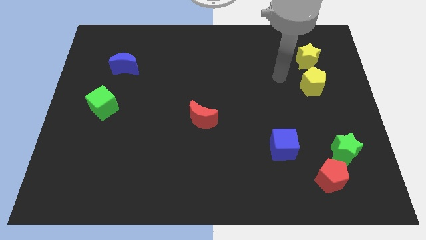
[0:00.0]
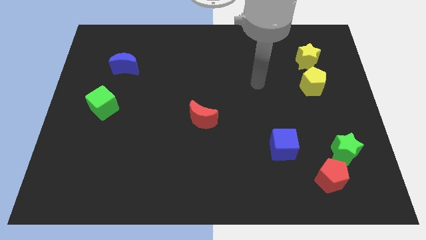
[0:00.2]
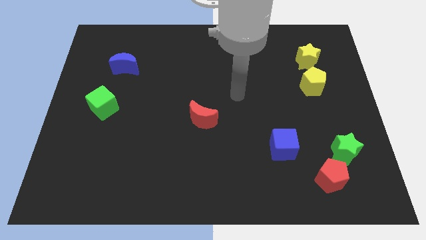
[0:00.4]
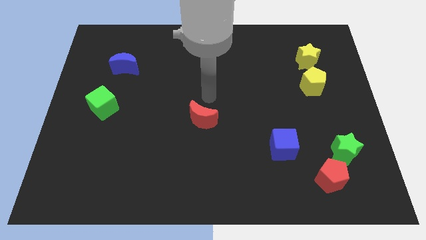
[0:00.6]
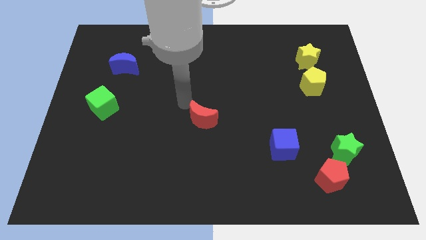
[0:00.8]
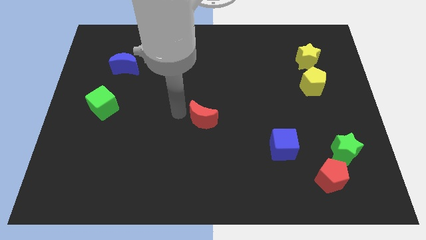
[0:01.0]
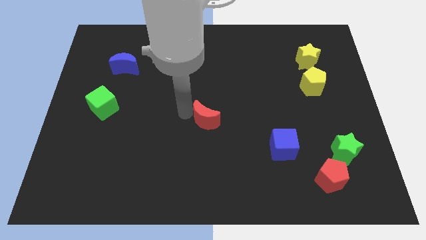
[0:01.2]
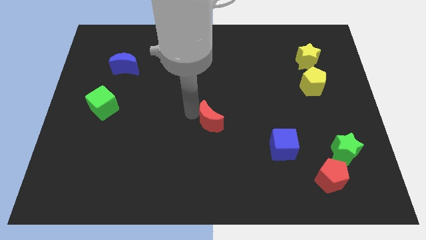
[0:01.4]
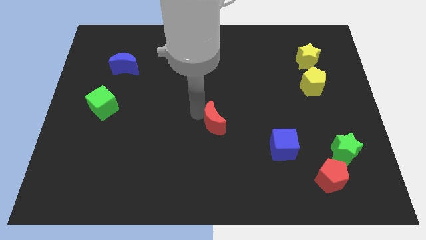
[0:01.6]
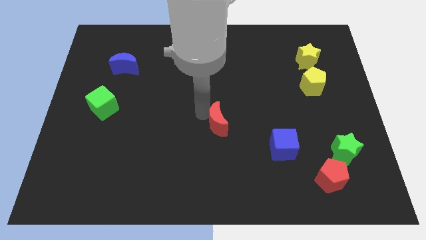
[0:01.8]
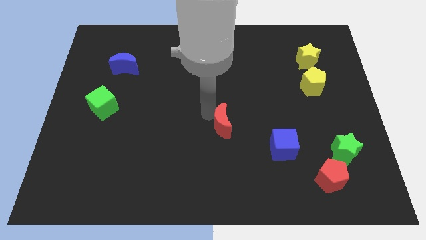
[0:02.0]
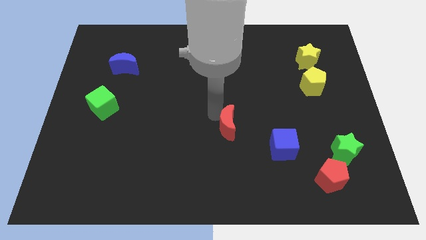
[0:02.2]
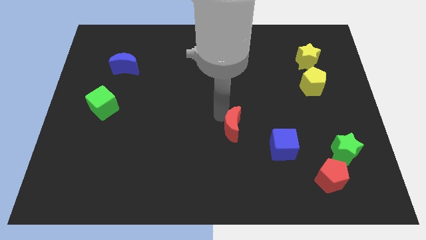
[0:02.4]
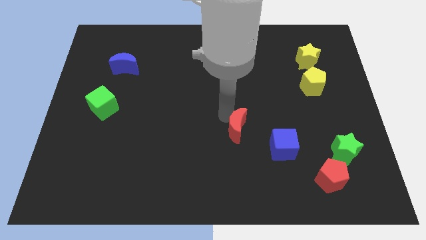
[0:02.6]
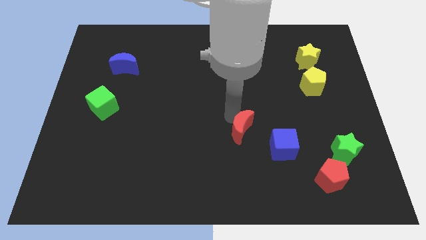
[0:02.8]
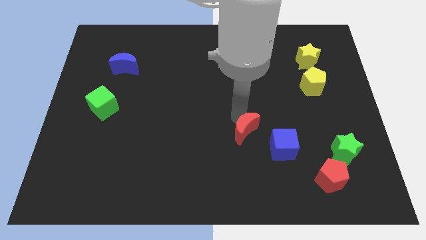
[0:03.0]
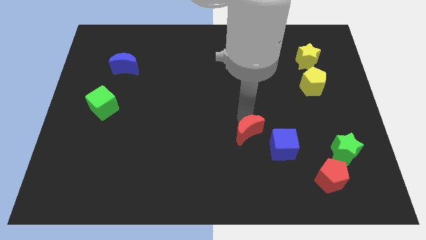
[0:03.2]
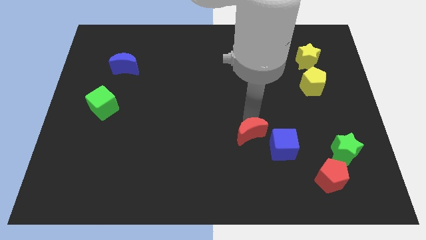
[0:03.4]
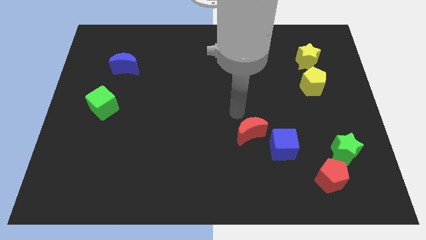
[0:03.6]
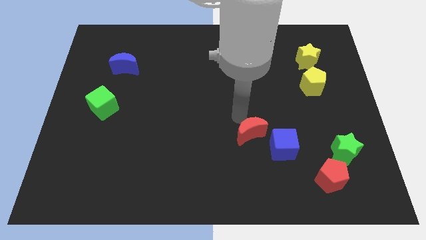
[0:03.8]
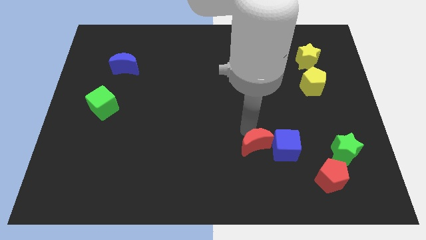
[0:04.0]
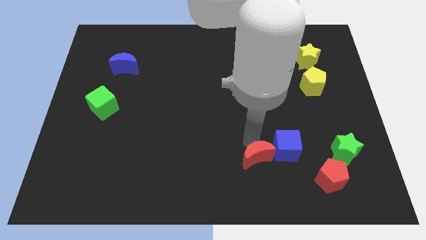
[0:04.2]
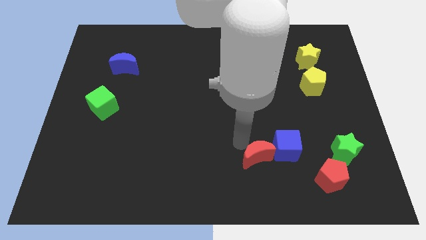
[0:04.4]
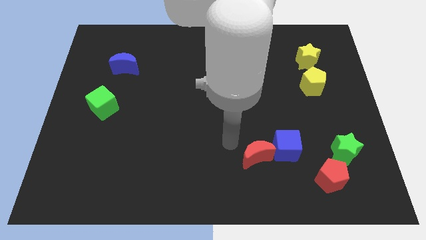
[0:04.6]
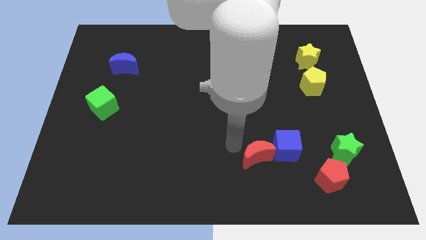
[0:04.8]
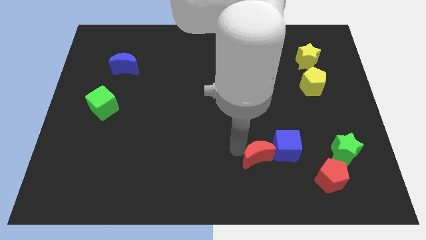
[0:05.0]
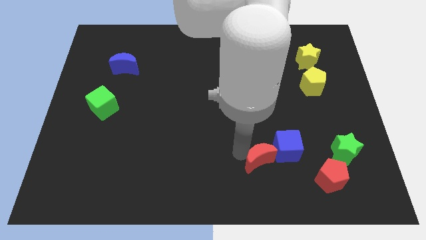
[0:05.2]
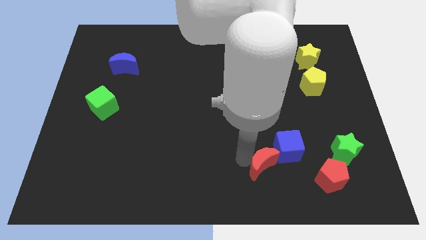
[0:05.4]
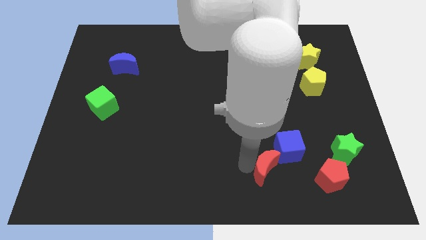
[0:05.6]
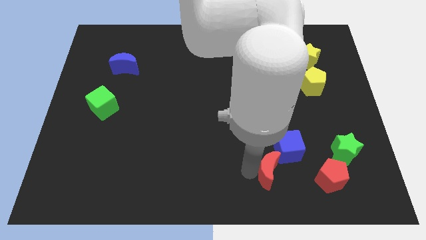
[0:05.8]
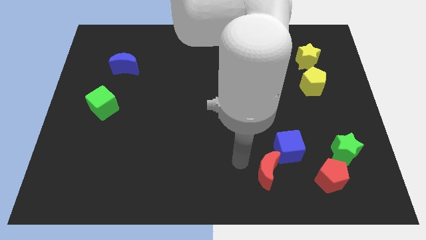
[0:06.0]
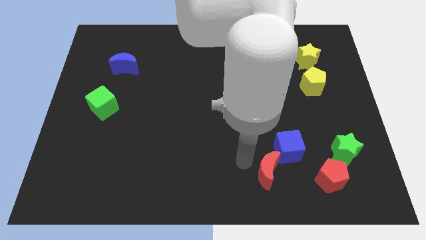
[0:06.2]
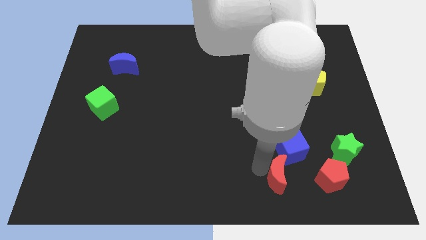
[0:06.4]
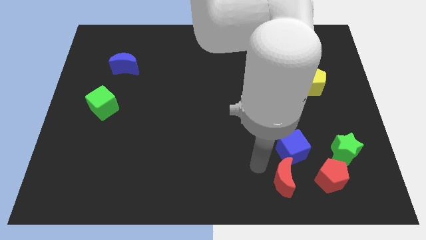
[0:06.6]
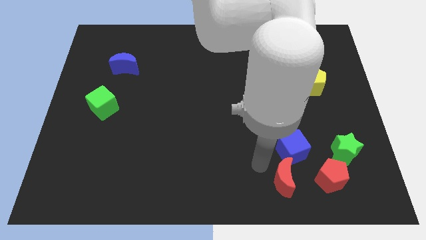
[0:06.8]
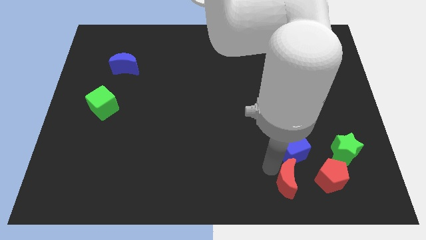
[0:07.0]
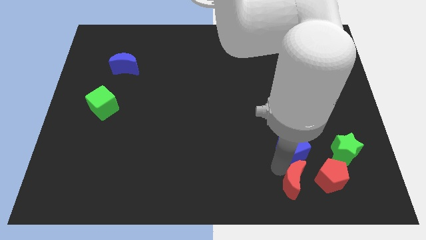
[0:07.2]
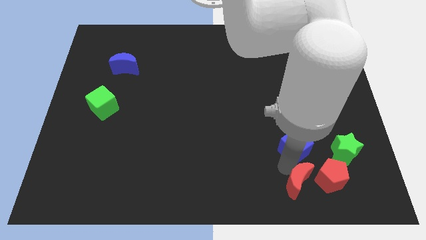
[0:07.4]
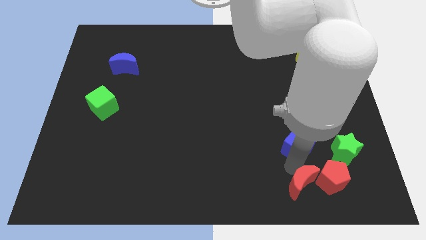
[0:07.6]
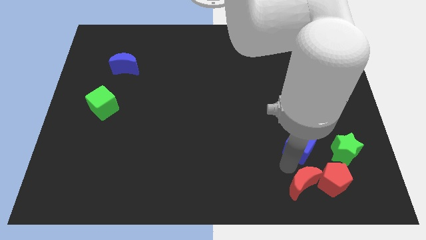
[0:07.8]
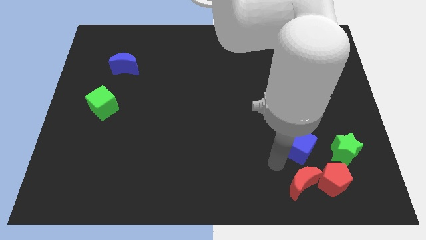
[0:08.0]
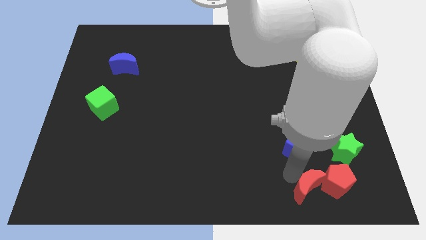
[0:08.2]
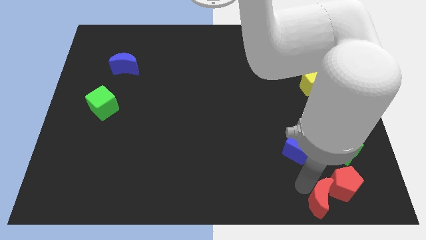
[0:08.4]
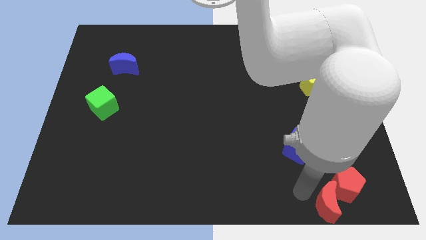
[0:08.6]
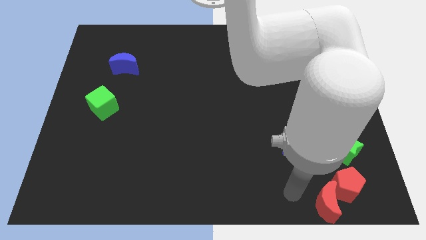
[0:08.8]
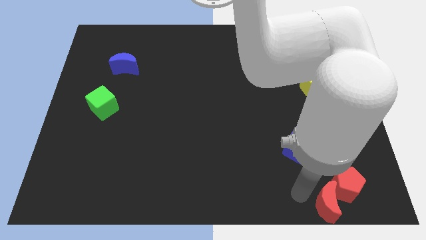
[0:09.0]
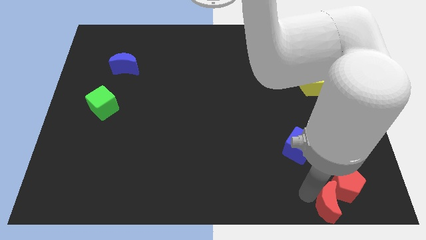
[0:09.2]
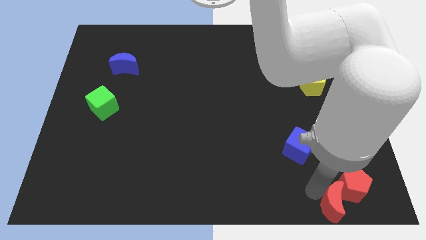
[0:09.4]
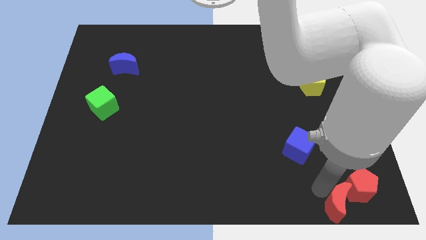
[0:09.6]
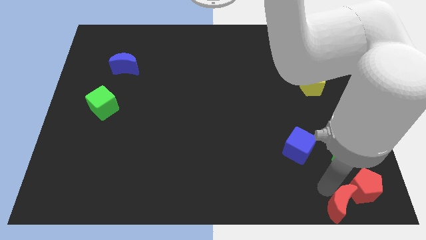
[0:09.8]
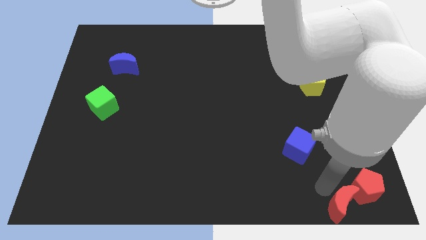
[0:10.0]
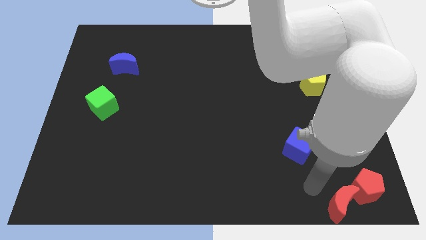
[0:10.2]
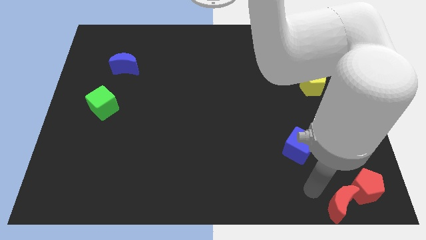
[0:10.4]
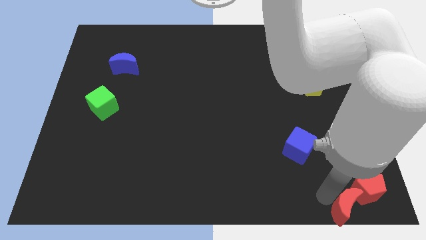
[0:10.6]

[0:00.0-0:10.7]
put the red moon to the lower right corner

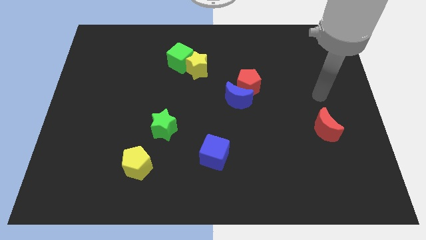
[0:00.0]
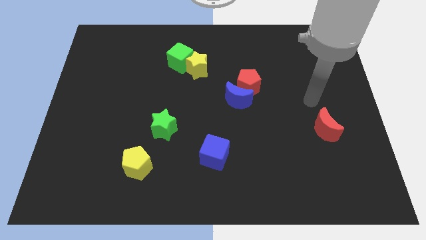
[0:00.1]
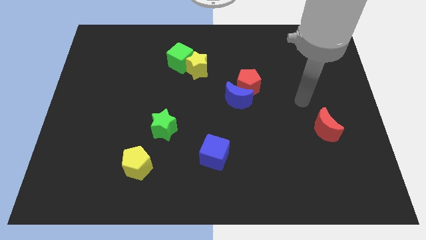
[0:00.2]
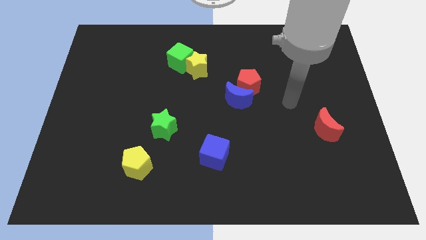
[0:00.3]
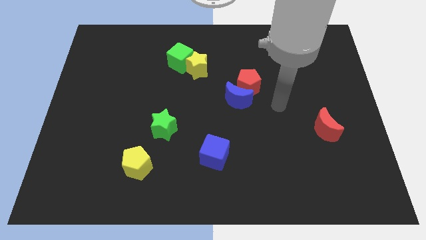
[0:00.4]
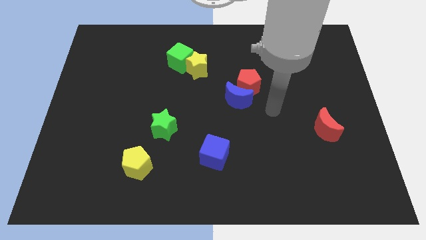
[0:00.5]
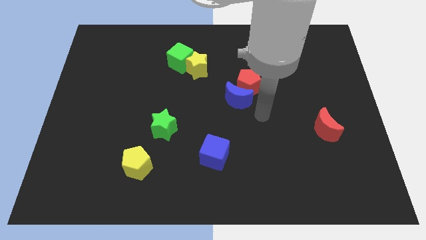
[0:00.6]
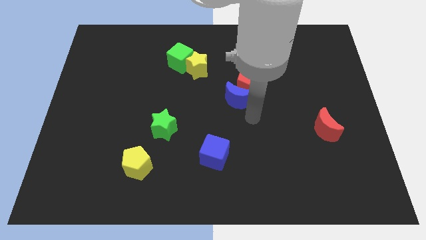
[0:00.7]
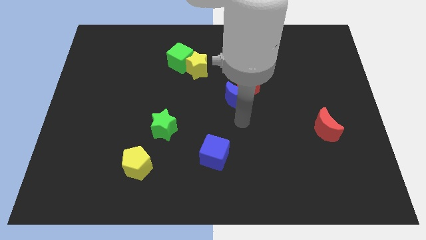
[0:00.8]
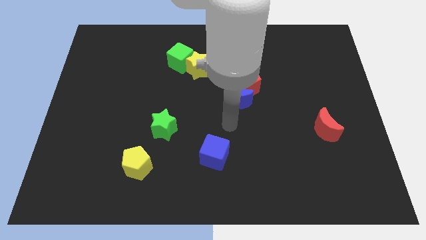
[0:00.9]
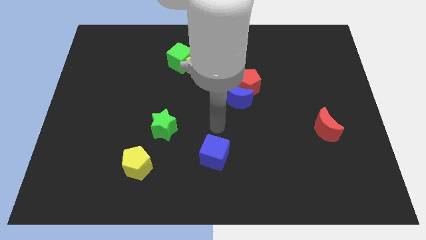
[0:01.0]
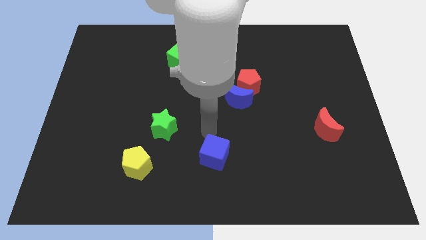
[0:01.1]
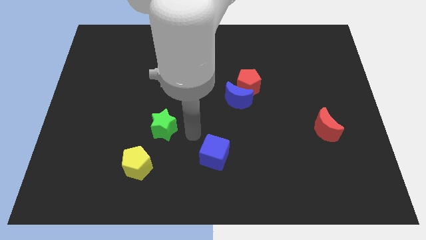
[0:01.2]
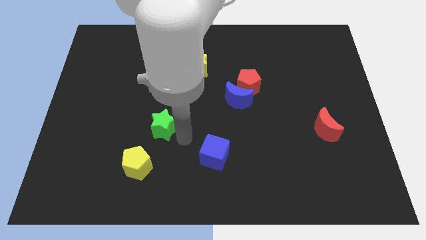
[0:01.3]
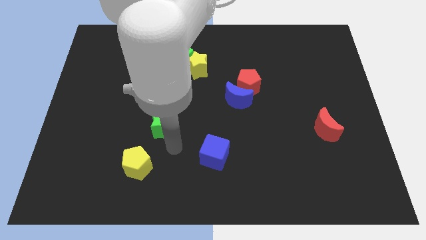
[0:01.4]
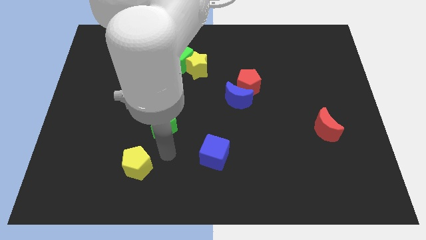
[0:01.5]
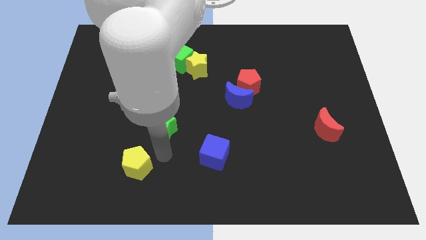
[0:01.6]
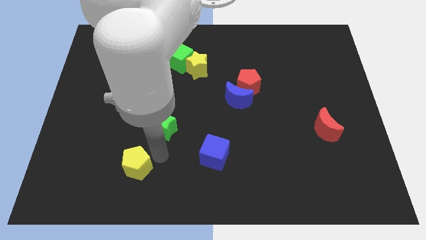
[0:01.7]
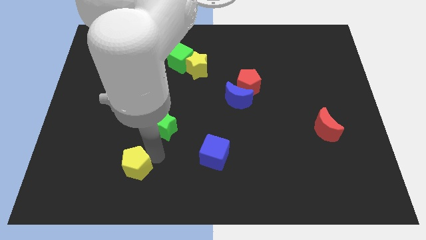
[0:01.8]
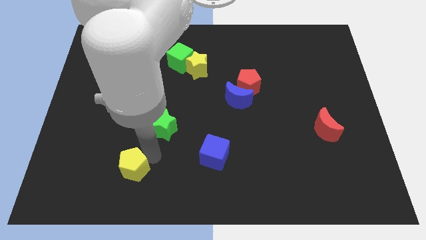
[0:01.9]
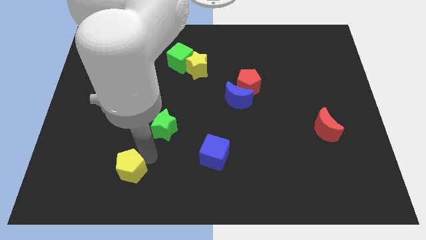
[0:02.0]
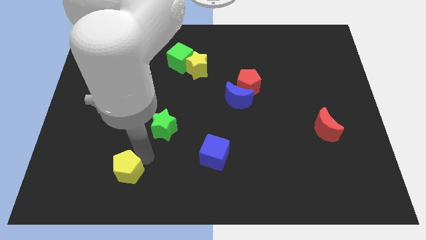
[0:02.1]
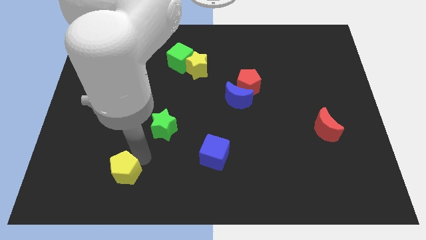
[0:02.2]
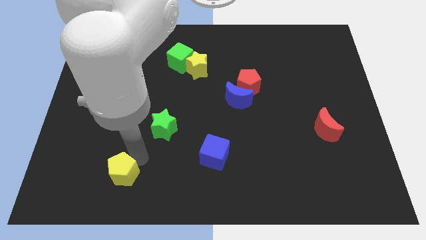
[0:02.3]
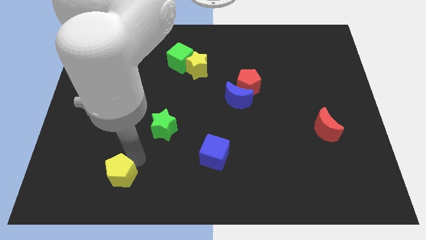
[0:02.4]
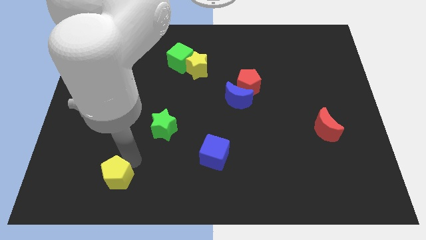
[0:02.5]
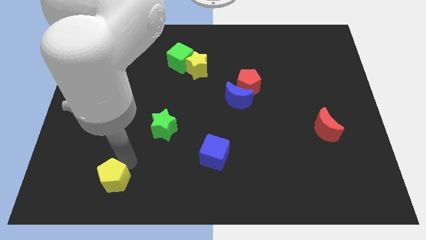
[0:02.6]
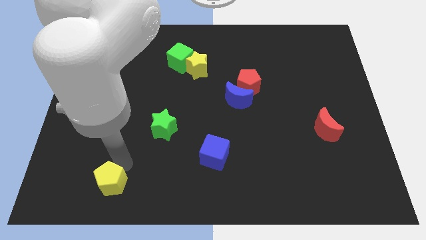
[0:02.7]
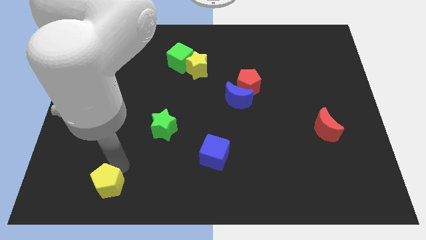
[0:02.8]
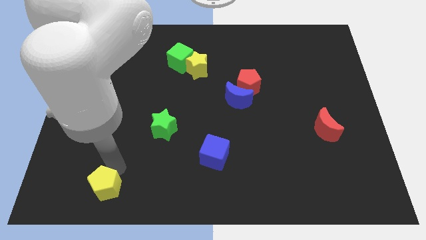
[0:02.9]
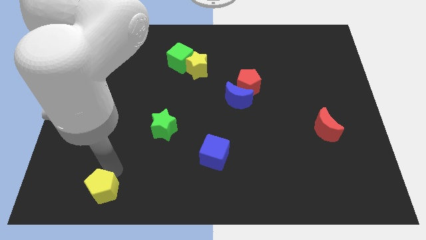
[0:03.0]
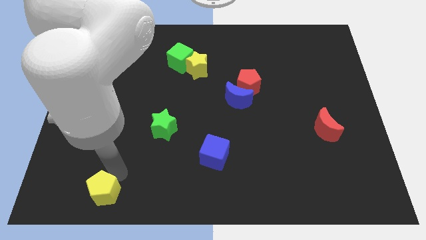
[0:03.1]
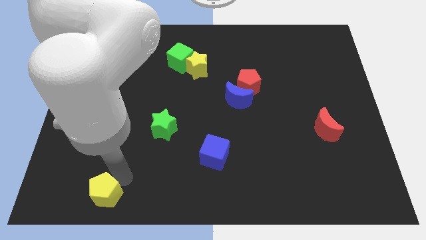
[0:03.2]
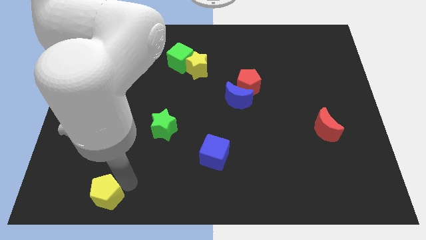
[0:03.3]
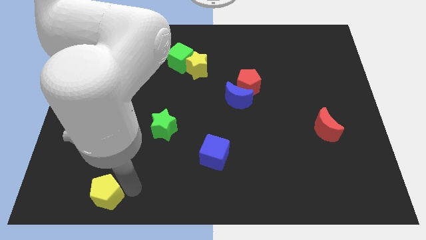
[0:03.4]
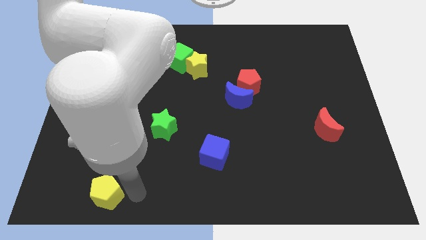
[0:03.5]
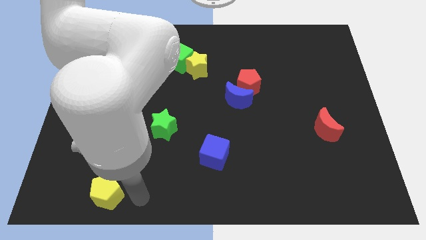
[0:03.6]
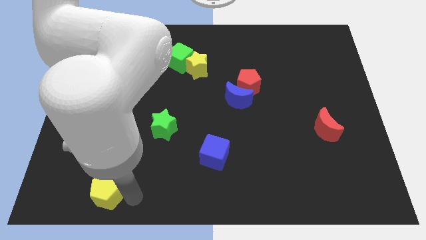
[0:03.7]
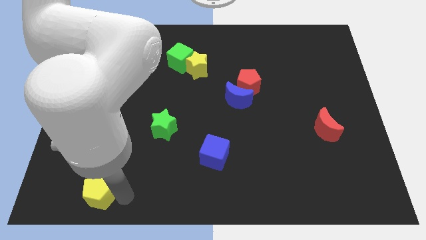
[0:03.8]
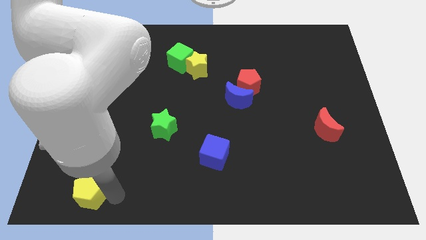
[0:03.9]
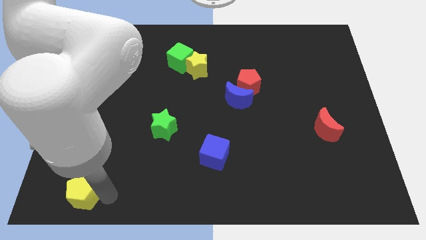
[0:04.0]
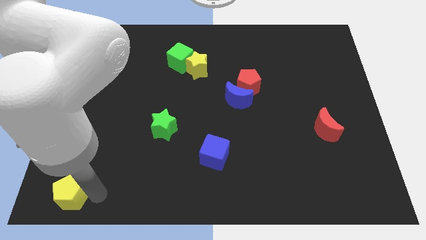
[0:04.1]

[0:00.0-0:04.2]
push the yellow pentagon to the lower left corner
